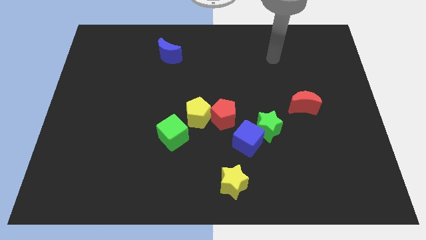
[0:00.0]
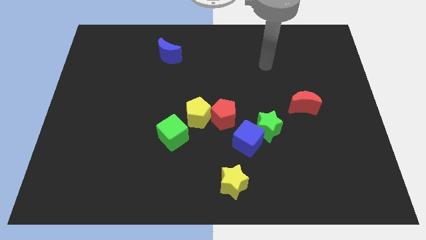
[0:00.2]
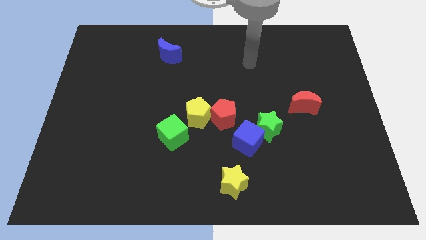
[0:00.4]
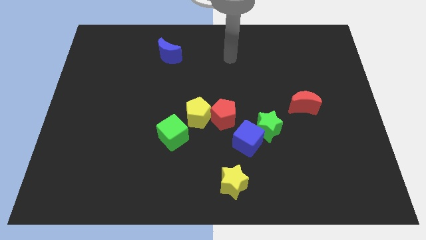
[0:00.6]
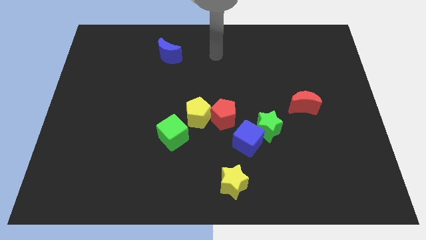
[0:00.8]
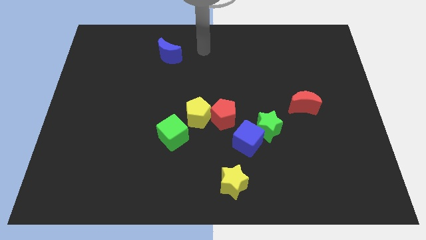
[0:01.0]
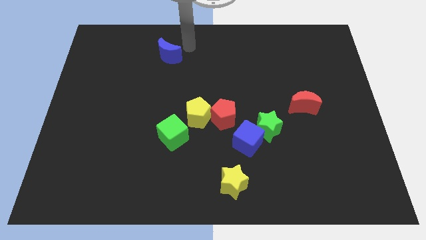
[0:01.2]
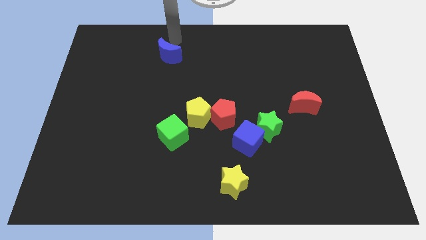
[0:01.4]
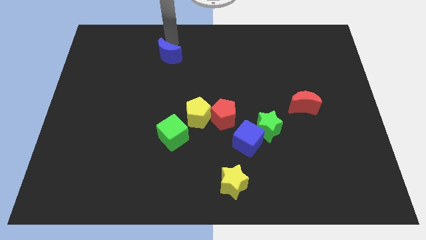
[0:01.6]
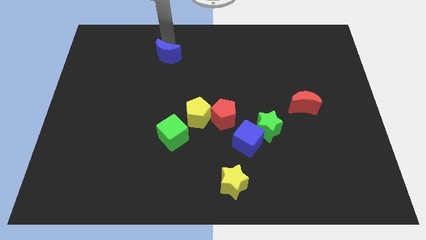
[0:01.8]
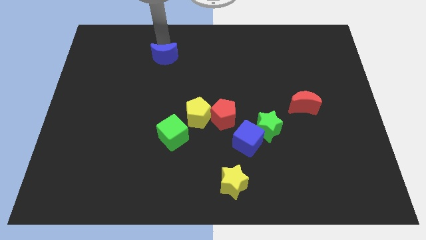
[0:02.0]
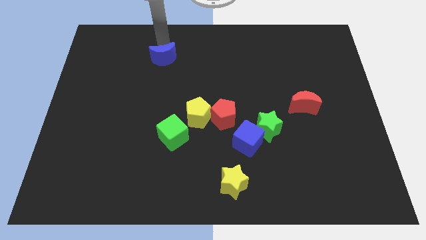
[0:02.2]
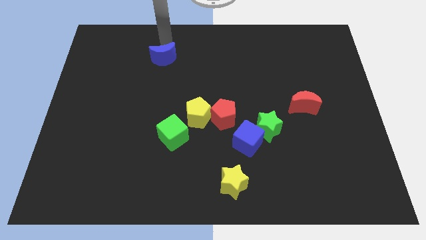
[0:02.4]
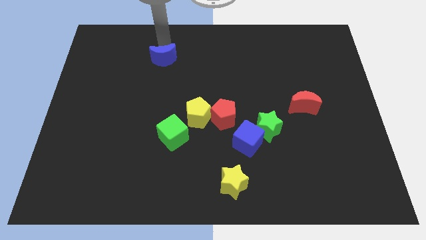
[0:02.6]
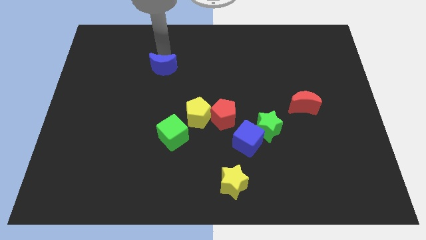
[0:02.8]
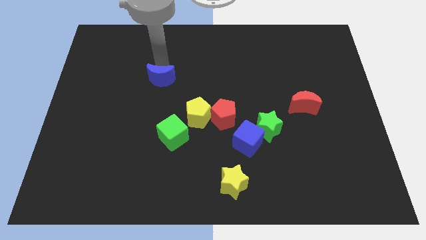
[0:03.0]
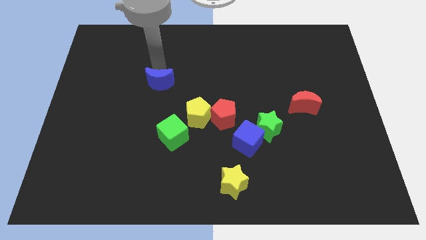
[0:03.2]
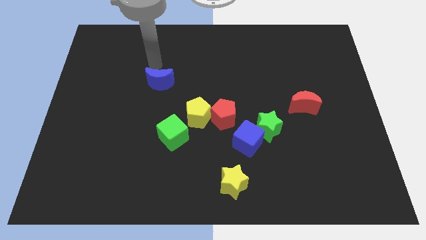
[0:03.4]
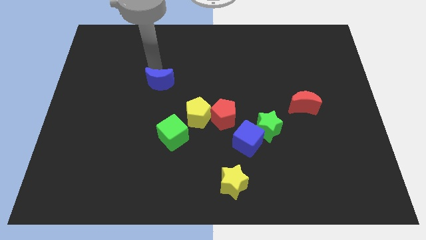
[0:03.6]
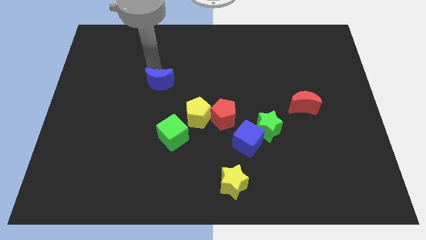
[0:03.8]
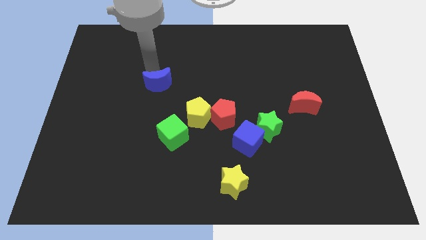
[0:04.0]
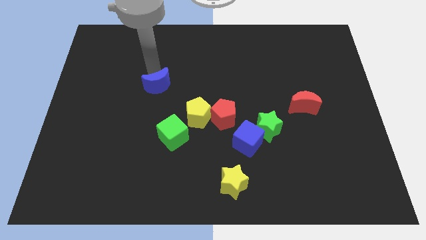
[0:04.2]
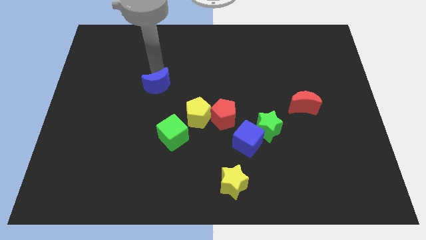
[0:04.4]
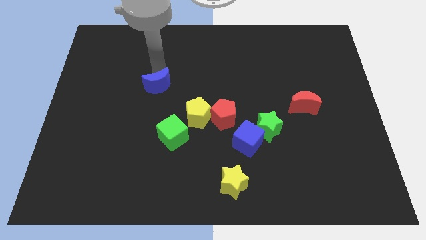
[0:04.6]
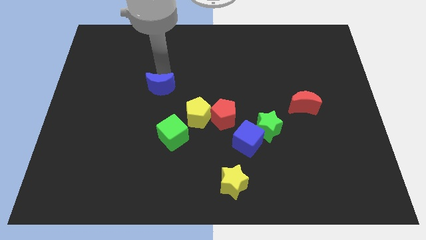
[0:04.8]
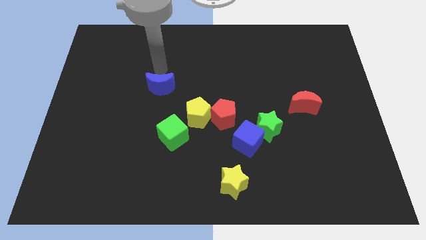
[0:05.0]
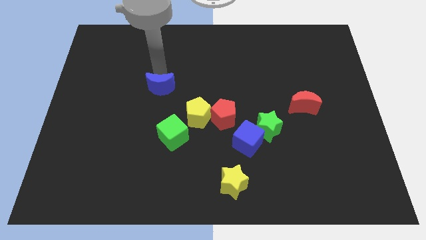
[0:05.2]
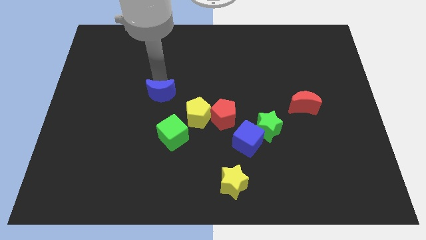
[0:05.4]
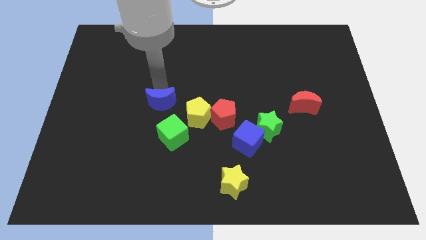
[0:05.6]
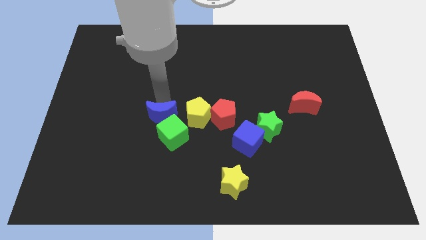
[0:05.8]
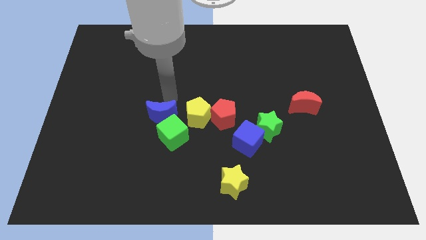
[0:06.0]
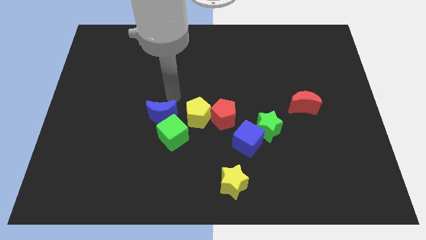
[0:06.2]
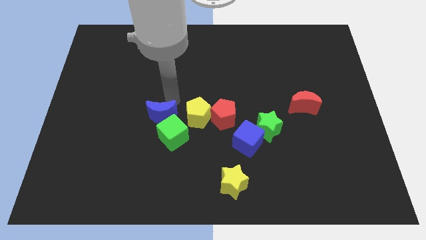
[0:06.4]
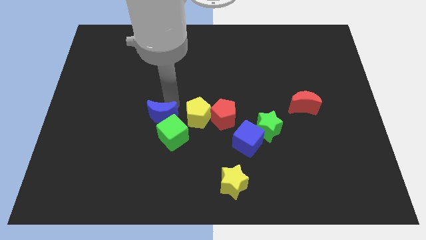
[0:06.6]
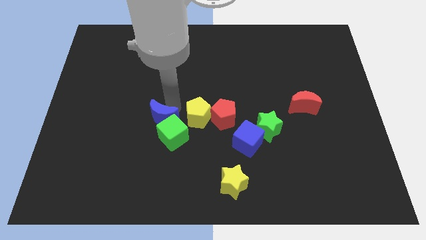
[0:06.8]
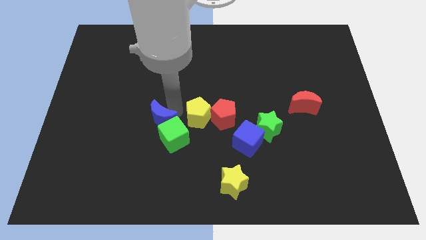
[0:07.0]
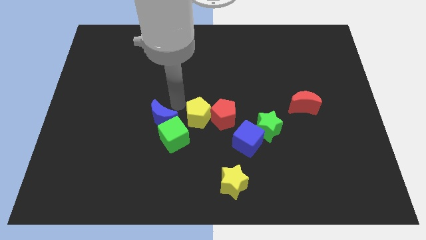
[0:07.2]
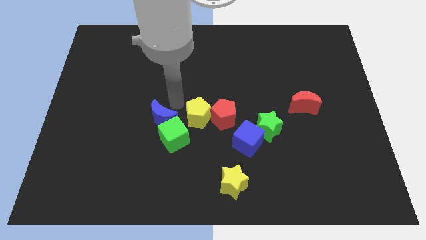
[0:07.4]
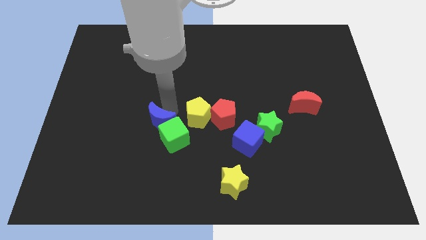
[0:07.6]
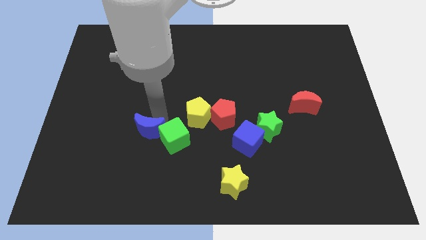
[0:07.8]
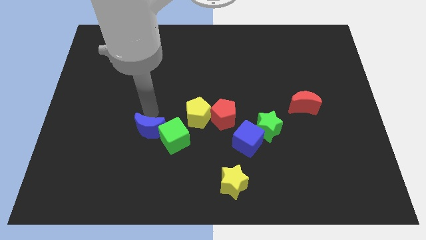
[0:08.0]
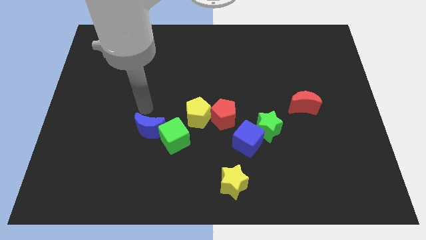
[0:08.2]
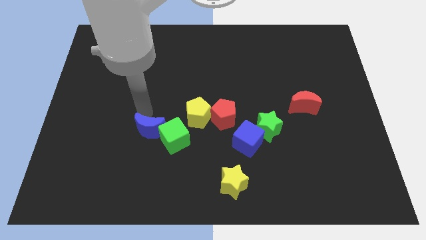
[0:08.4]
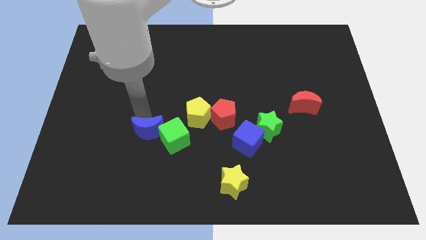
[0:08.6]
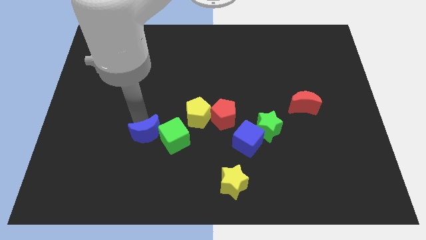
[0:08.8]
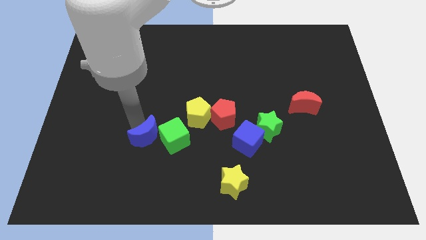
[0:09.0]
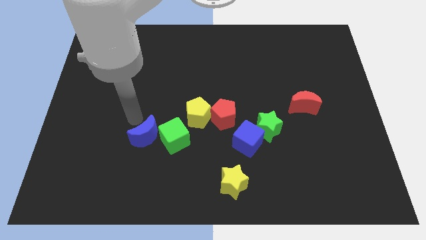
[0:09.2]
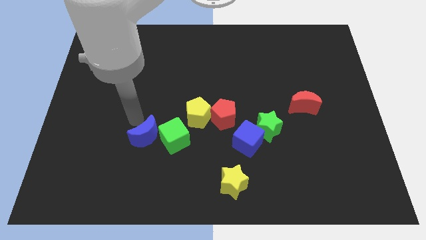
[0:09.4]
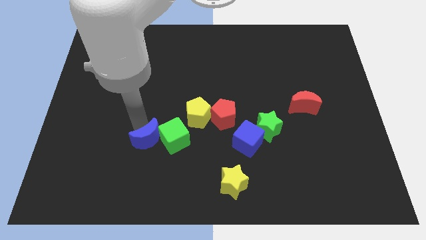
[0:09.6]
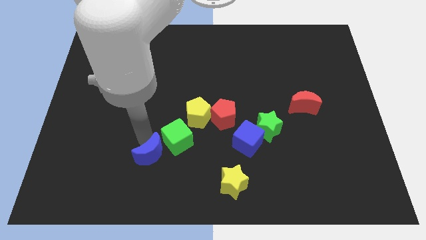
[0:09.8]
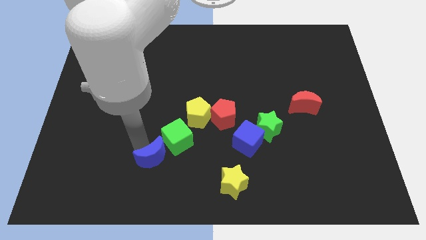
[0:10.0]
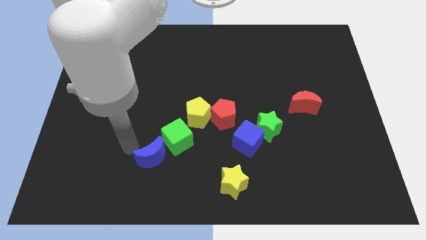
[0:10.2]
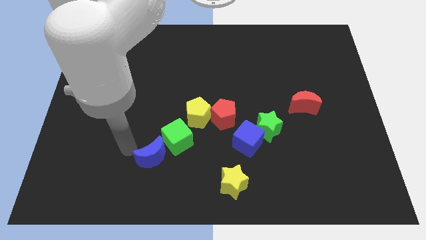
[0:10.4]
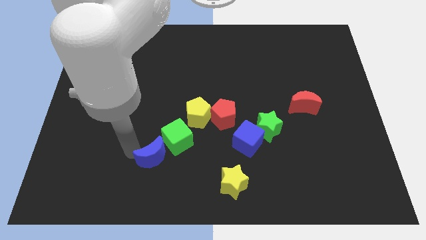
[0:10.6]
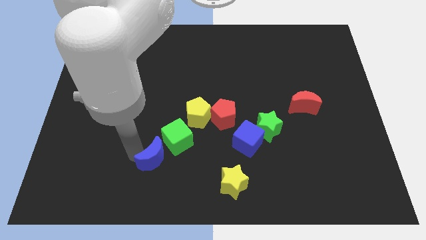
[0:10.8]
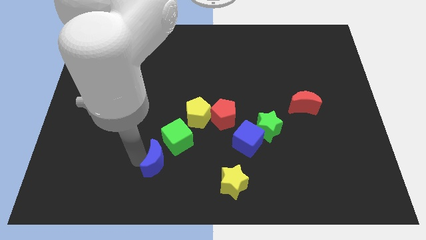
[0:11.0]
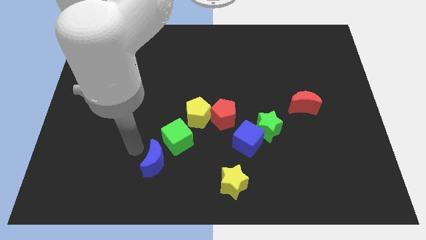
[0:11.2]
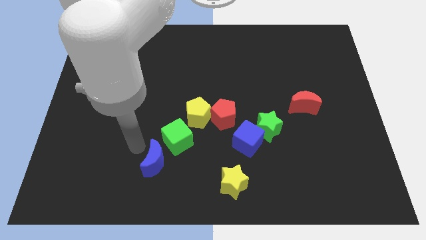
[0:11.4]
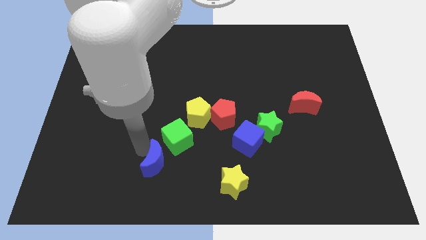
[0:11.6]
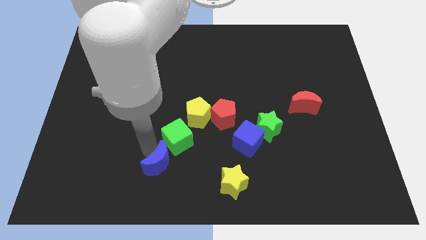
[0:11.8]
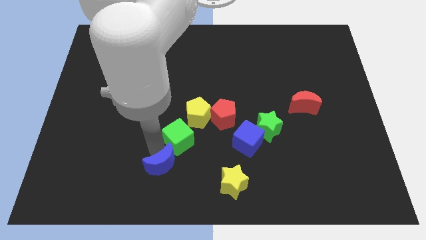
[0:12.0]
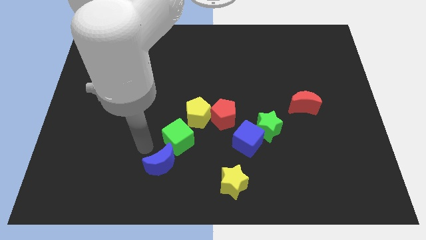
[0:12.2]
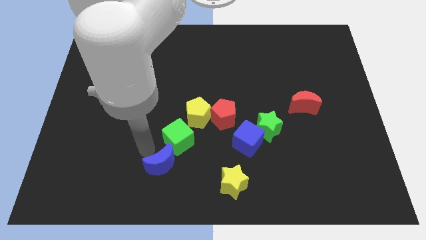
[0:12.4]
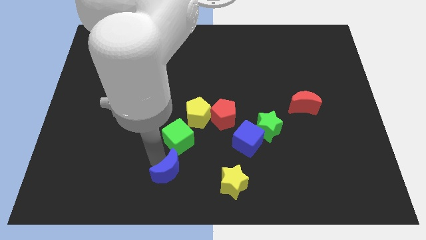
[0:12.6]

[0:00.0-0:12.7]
put the blue moon to the bottom side

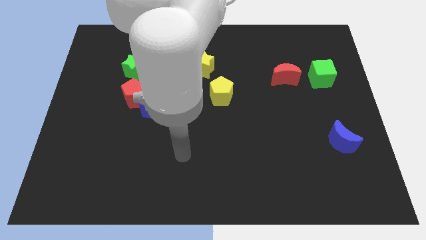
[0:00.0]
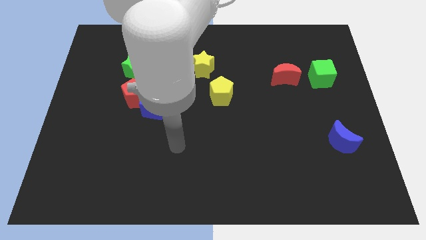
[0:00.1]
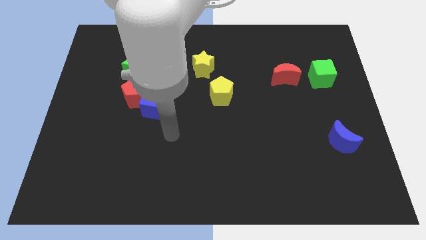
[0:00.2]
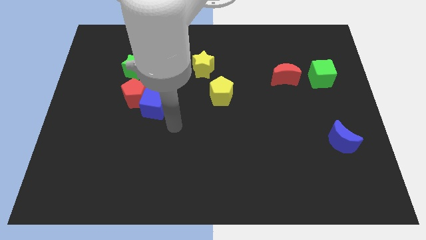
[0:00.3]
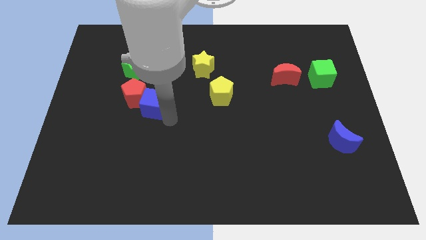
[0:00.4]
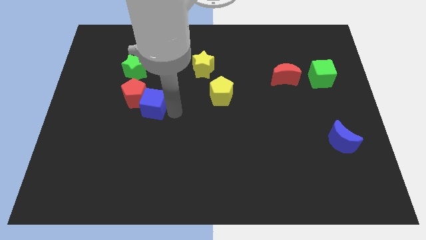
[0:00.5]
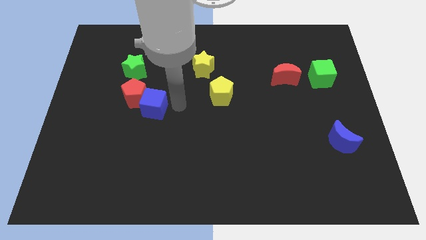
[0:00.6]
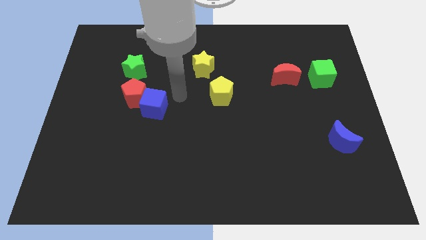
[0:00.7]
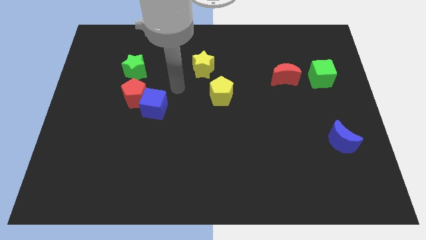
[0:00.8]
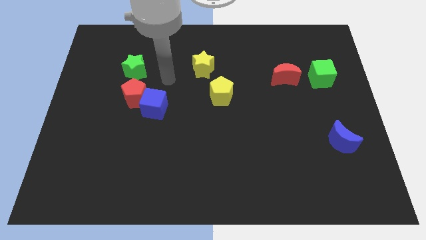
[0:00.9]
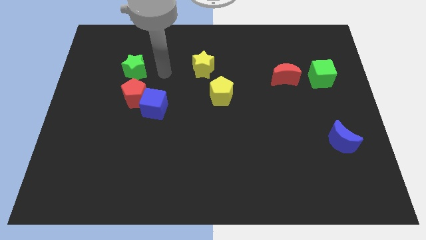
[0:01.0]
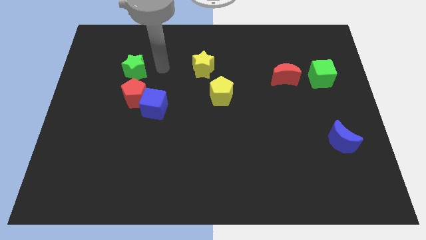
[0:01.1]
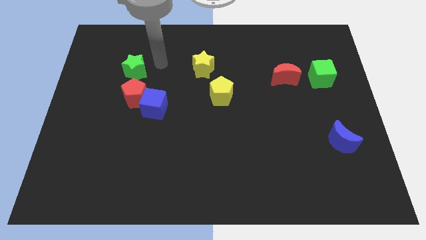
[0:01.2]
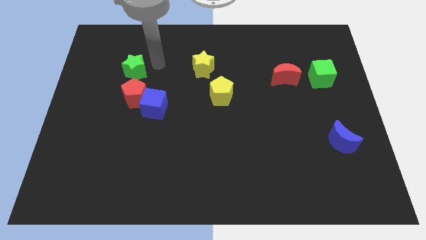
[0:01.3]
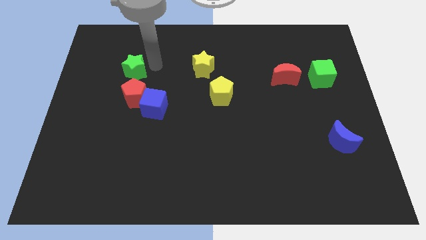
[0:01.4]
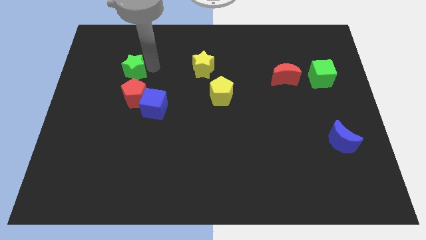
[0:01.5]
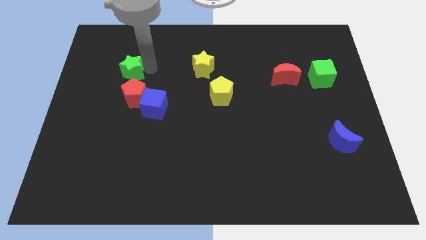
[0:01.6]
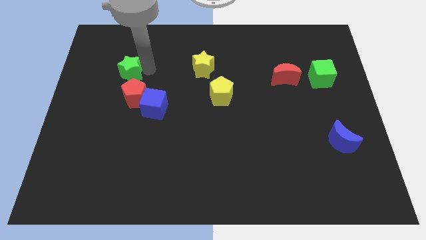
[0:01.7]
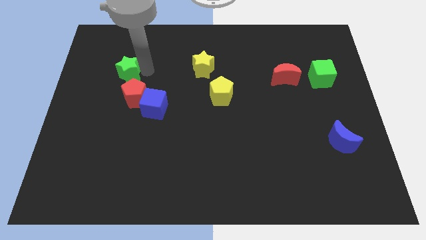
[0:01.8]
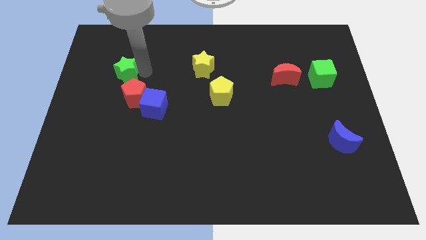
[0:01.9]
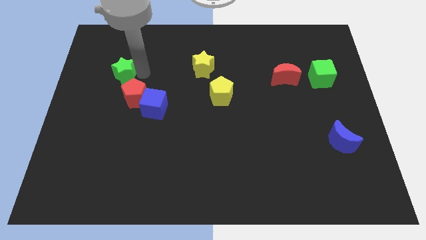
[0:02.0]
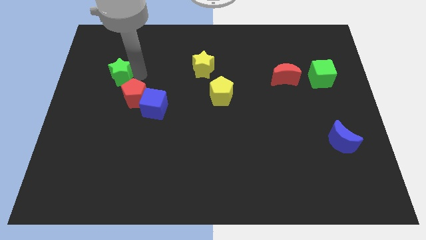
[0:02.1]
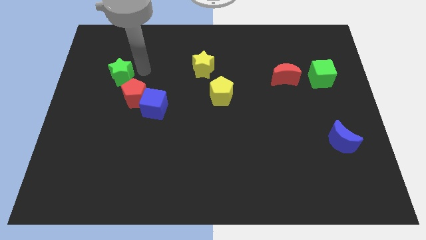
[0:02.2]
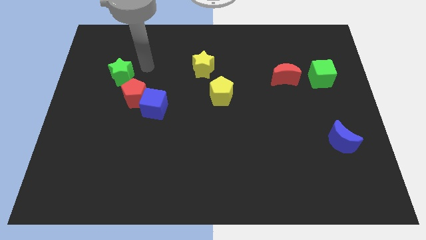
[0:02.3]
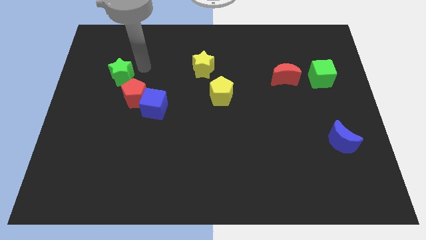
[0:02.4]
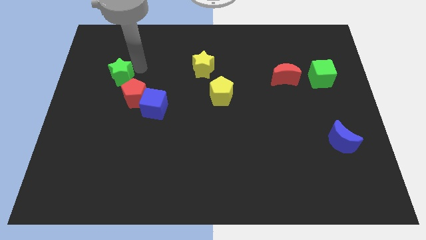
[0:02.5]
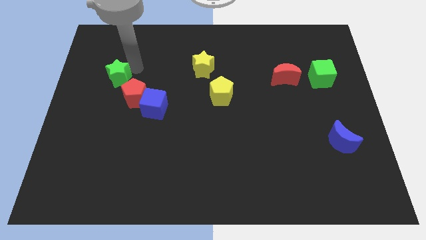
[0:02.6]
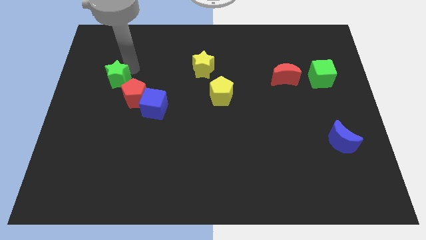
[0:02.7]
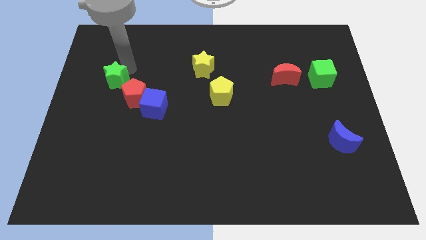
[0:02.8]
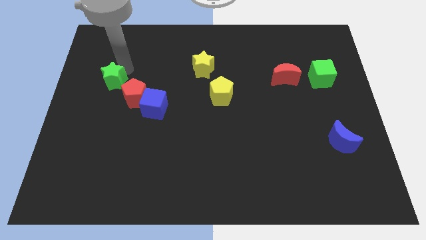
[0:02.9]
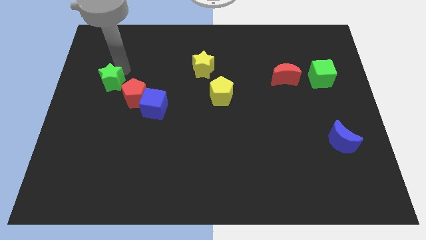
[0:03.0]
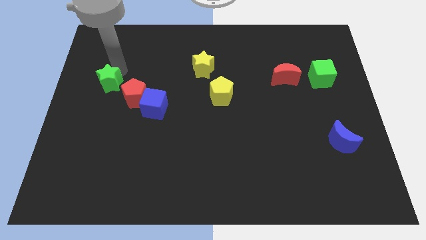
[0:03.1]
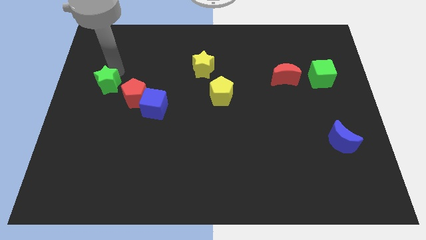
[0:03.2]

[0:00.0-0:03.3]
slide the green star to the left side of the board
